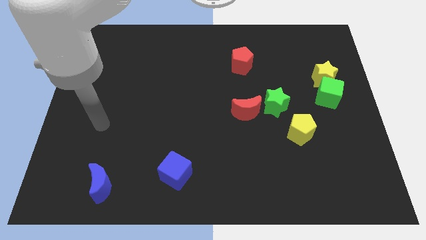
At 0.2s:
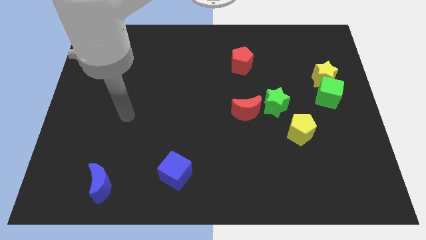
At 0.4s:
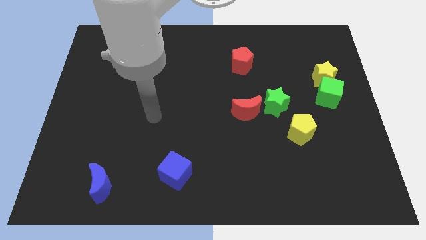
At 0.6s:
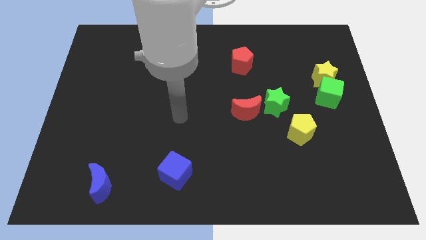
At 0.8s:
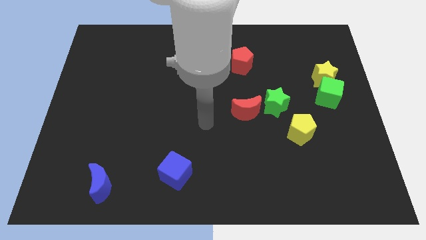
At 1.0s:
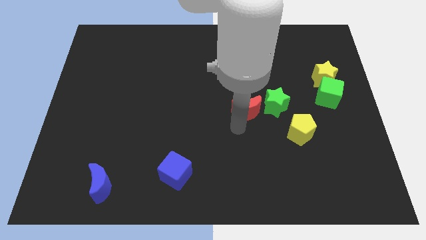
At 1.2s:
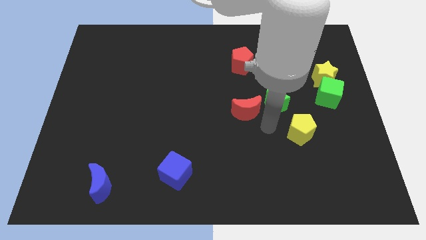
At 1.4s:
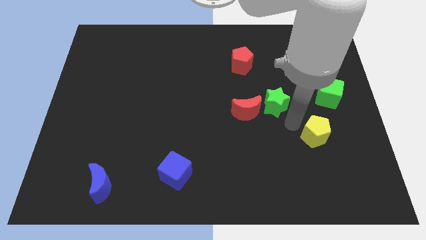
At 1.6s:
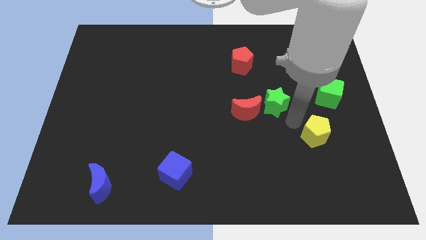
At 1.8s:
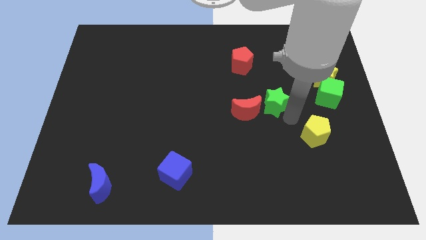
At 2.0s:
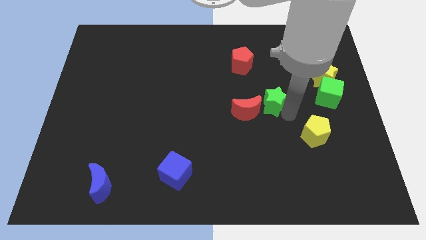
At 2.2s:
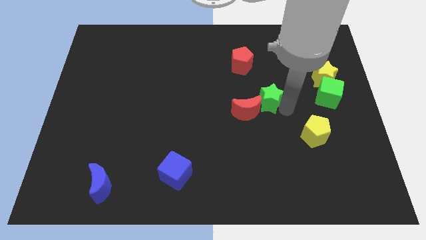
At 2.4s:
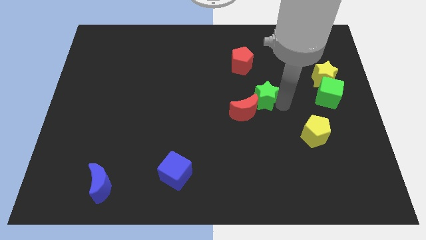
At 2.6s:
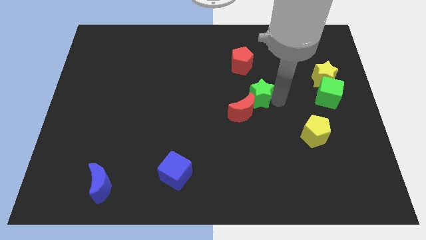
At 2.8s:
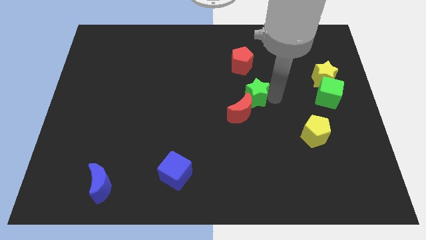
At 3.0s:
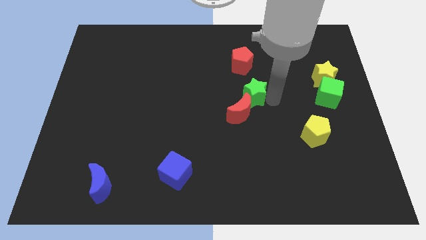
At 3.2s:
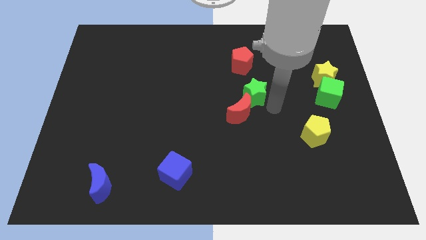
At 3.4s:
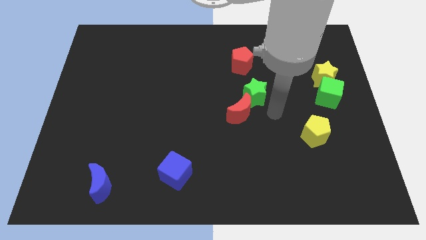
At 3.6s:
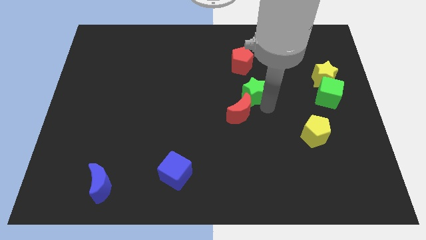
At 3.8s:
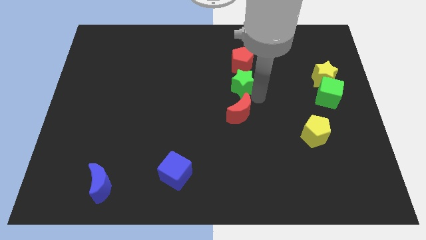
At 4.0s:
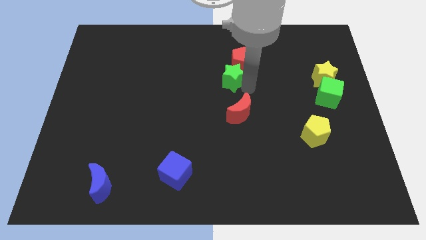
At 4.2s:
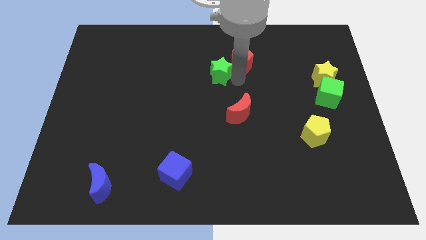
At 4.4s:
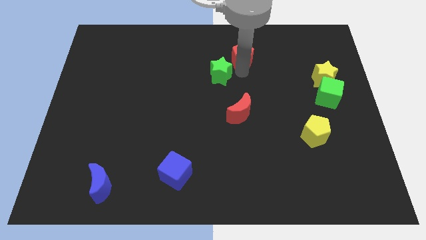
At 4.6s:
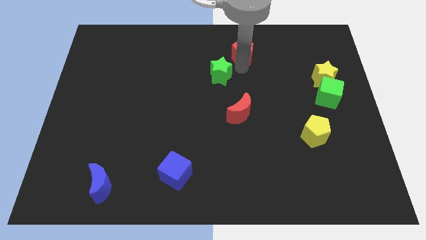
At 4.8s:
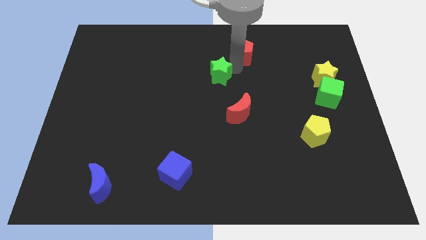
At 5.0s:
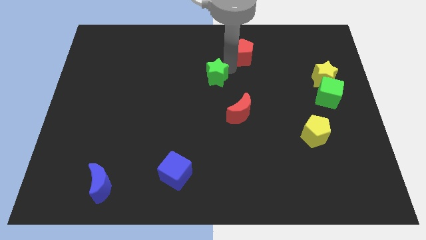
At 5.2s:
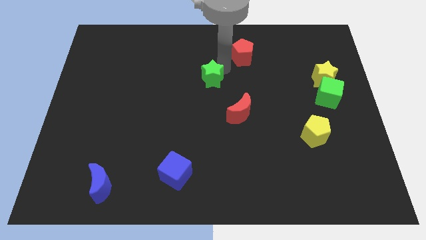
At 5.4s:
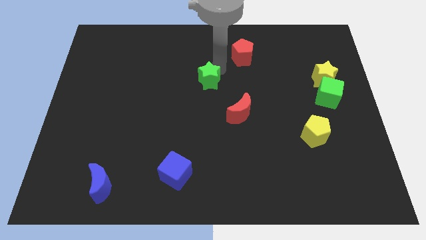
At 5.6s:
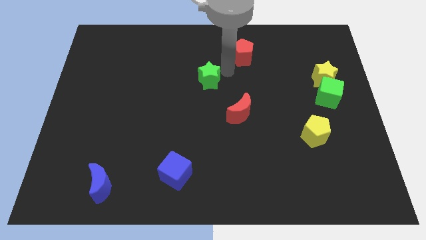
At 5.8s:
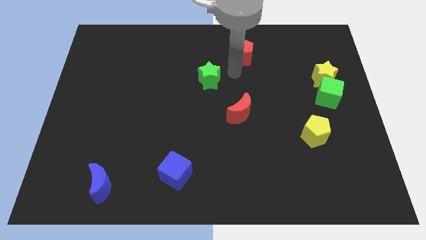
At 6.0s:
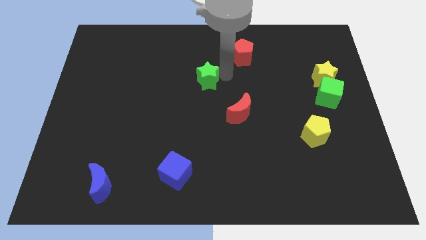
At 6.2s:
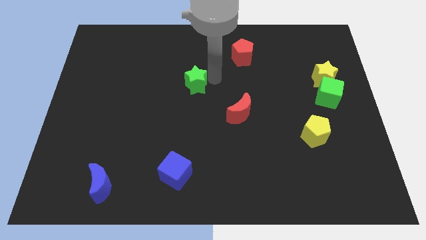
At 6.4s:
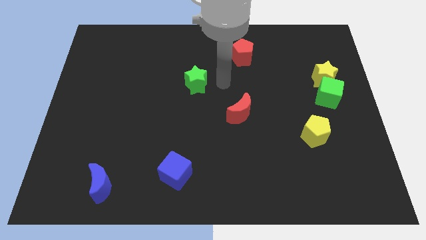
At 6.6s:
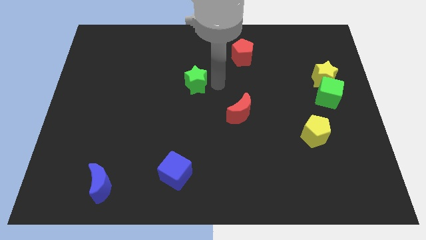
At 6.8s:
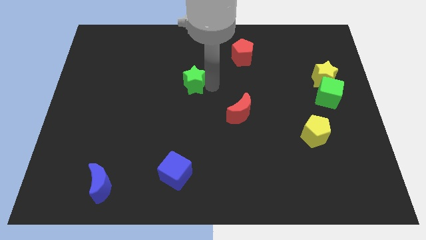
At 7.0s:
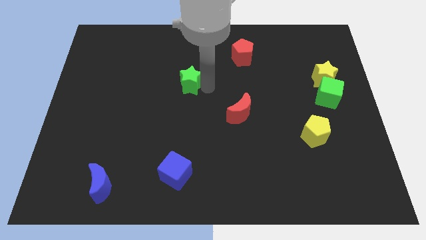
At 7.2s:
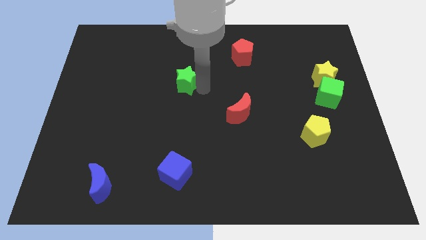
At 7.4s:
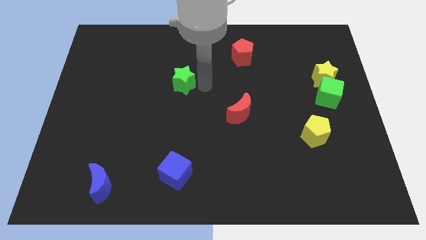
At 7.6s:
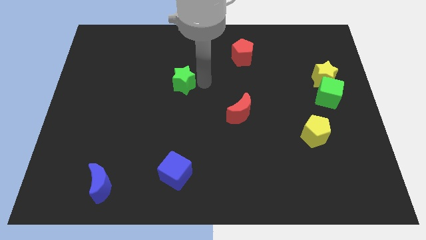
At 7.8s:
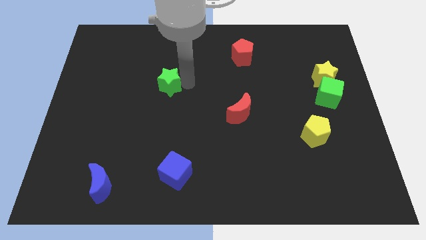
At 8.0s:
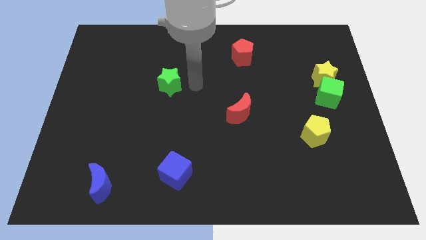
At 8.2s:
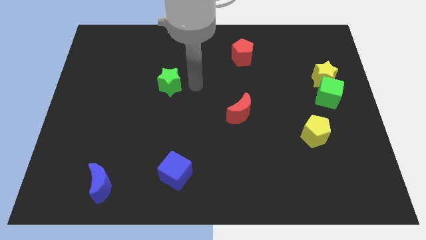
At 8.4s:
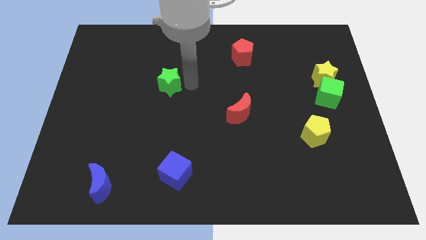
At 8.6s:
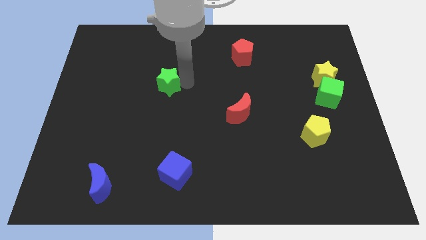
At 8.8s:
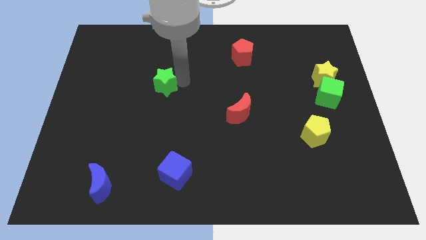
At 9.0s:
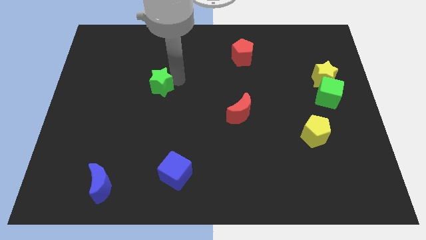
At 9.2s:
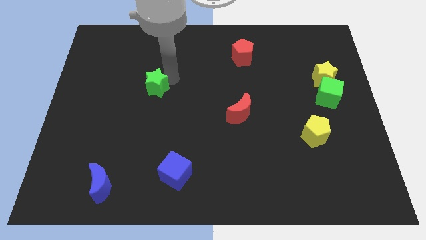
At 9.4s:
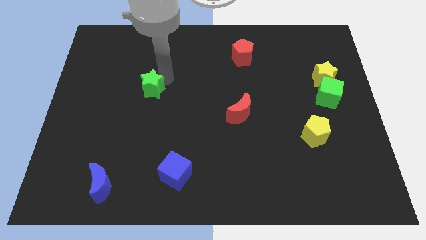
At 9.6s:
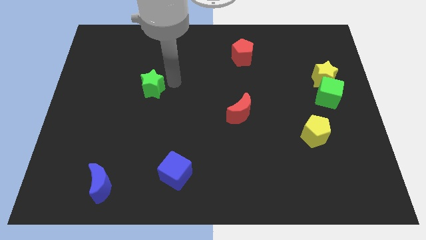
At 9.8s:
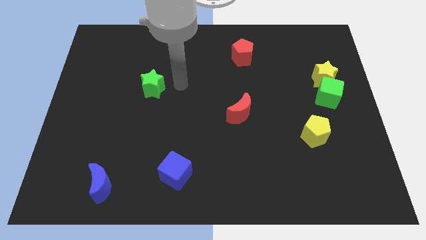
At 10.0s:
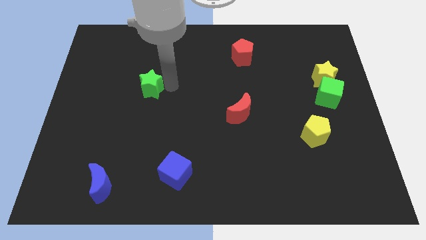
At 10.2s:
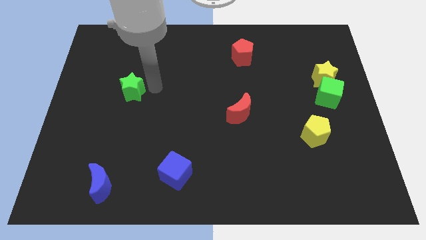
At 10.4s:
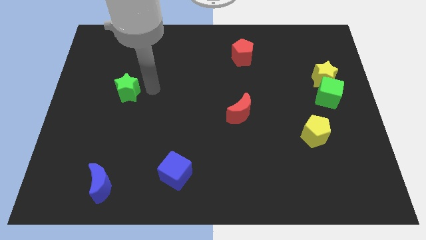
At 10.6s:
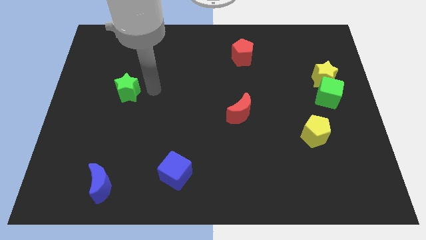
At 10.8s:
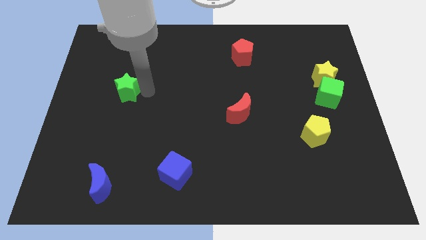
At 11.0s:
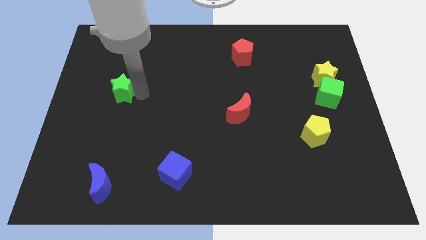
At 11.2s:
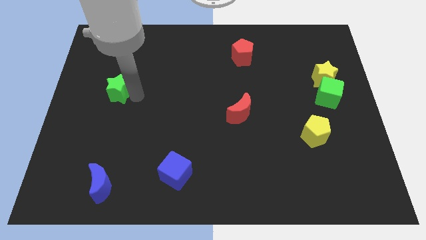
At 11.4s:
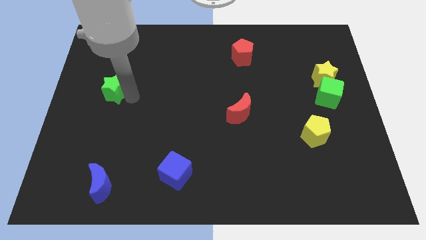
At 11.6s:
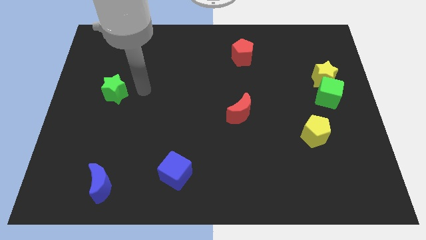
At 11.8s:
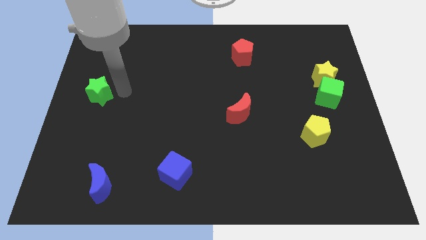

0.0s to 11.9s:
push the green star to the center left

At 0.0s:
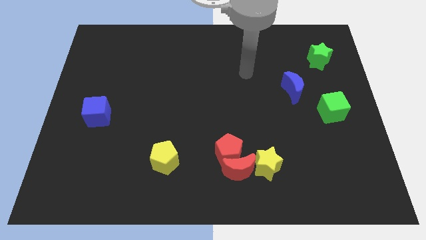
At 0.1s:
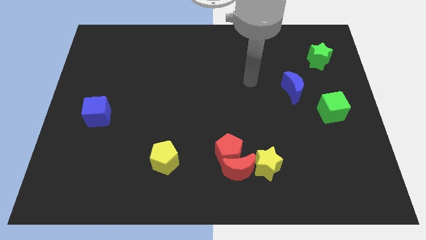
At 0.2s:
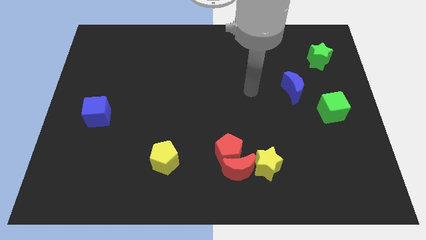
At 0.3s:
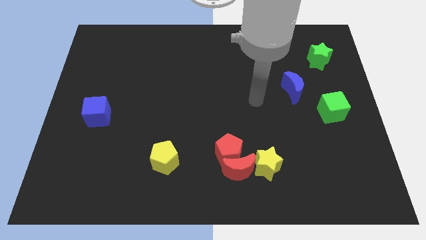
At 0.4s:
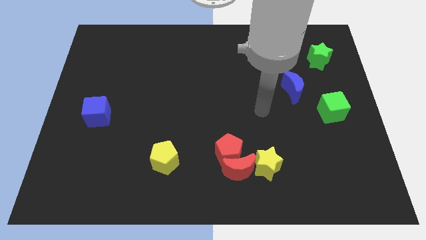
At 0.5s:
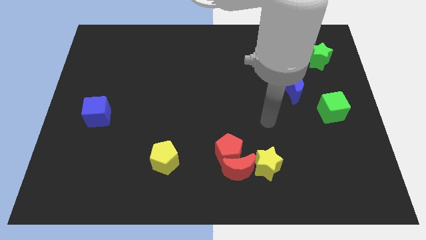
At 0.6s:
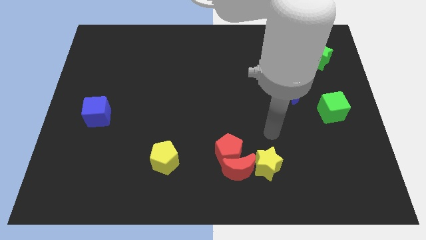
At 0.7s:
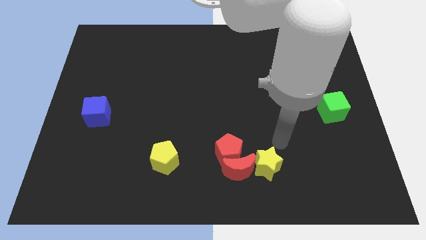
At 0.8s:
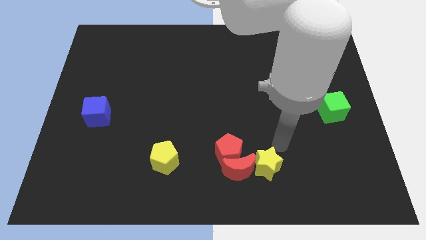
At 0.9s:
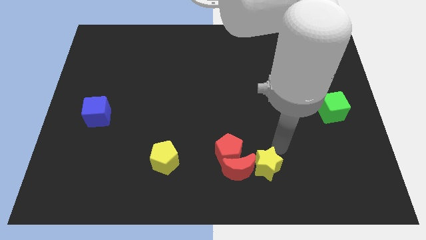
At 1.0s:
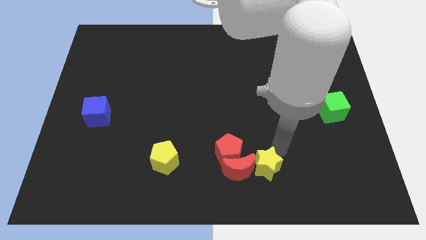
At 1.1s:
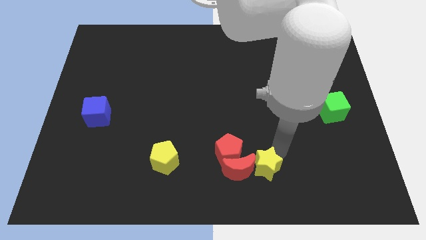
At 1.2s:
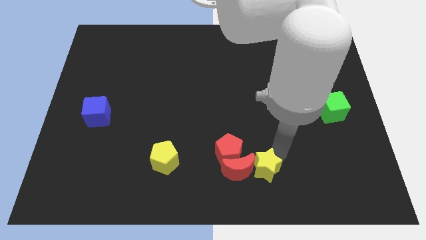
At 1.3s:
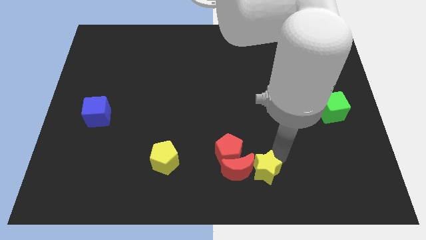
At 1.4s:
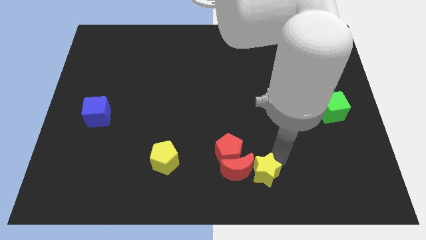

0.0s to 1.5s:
push the yellow star to the bottom side
